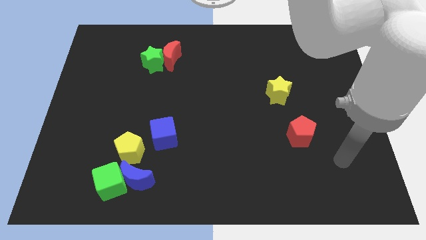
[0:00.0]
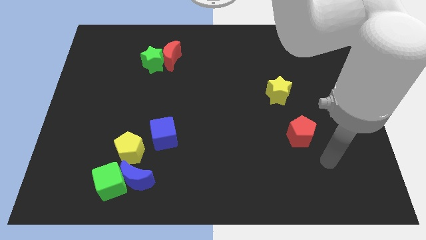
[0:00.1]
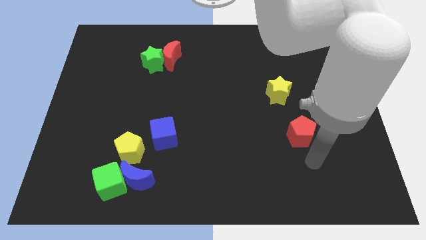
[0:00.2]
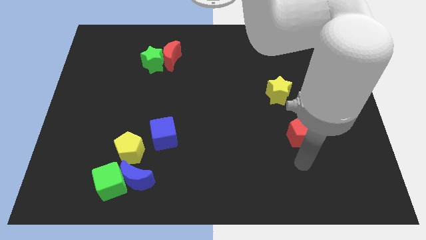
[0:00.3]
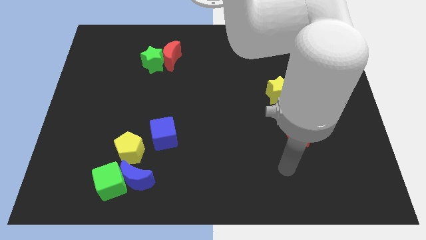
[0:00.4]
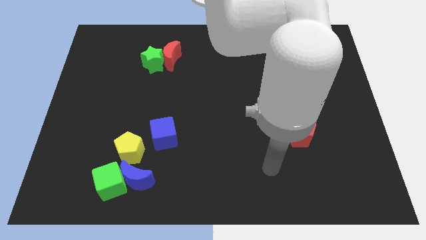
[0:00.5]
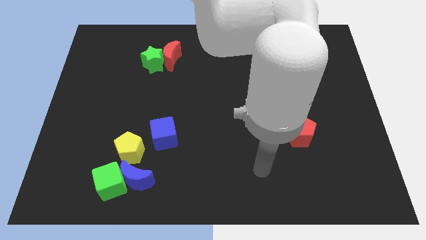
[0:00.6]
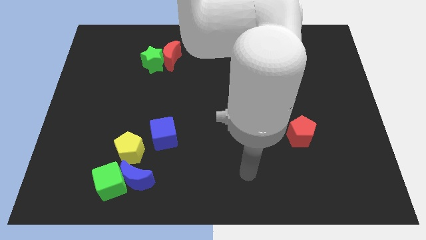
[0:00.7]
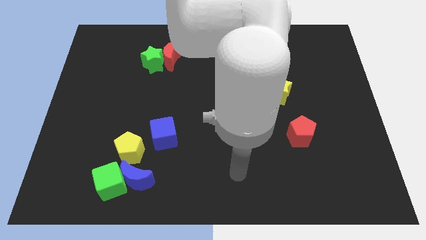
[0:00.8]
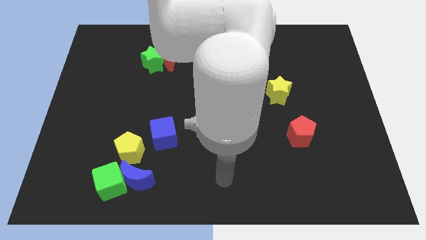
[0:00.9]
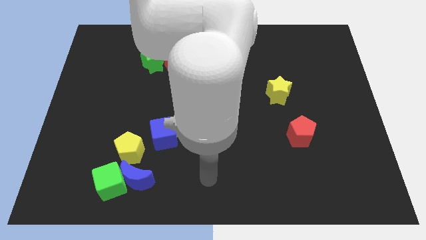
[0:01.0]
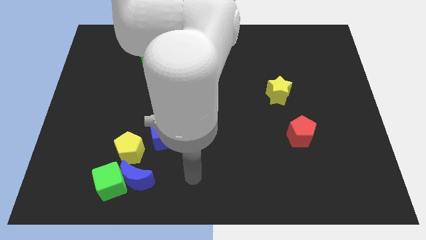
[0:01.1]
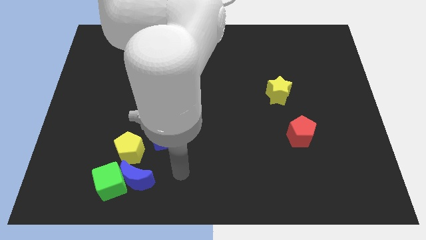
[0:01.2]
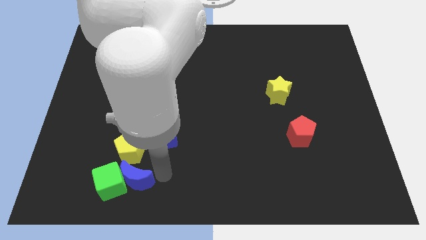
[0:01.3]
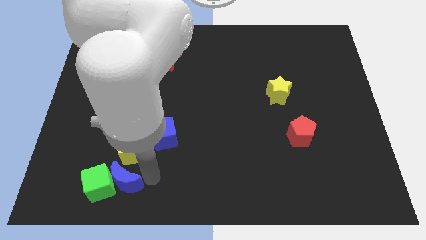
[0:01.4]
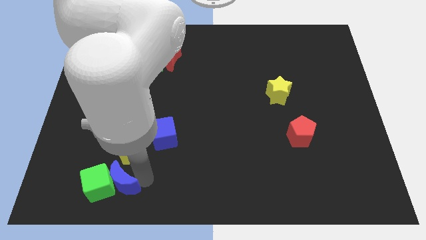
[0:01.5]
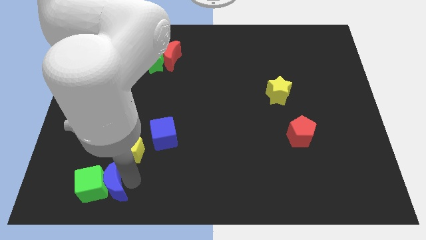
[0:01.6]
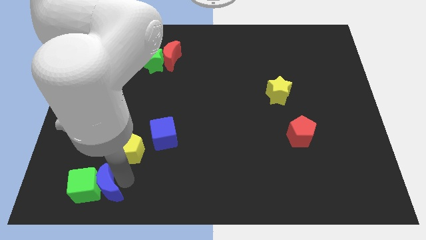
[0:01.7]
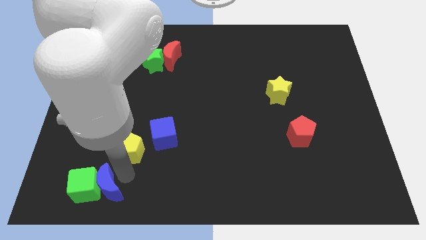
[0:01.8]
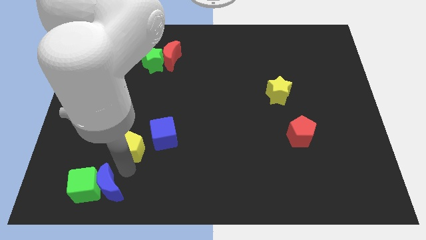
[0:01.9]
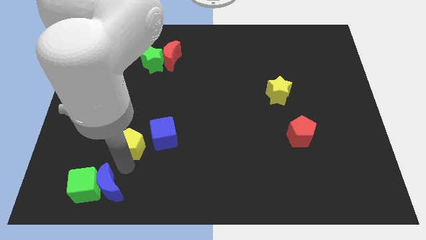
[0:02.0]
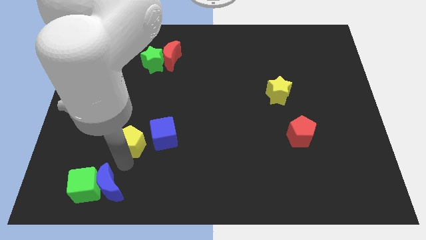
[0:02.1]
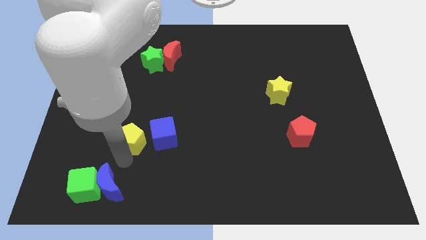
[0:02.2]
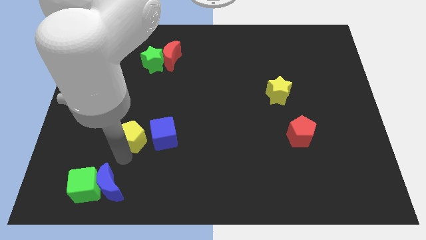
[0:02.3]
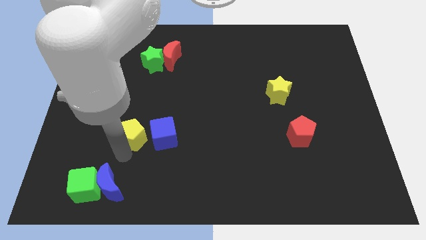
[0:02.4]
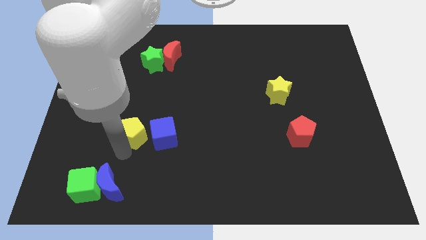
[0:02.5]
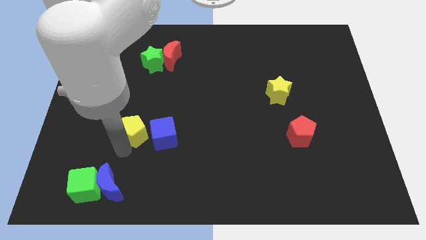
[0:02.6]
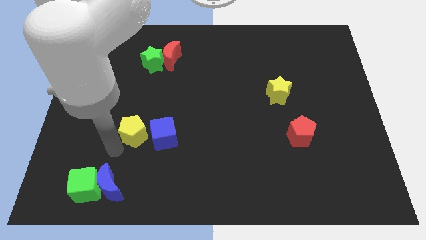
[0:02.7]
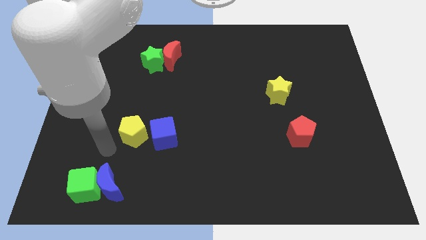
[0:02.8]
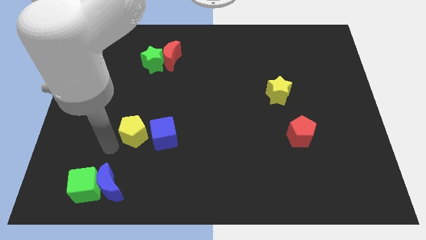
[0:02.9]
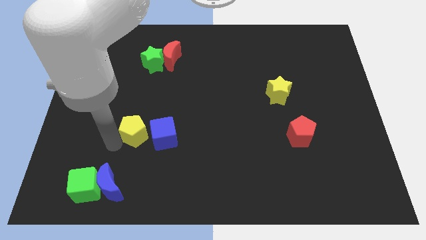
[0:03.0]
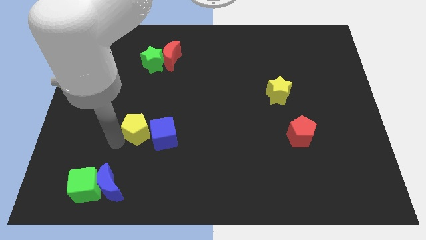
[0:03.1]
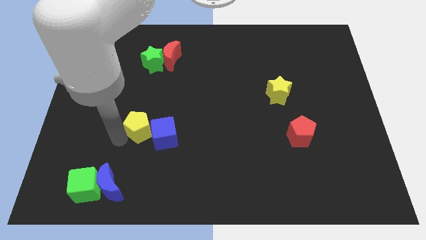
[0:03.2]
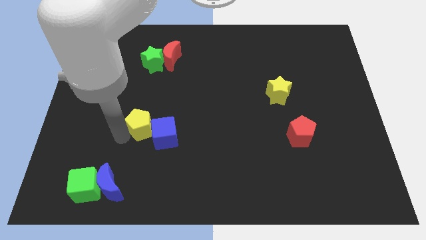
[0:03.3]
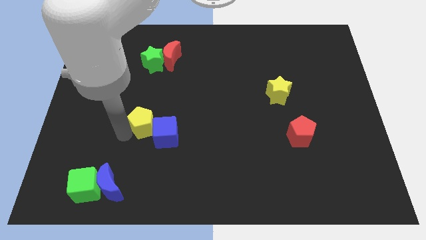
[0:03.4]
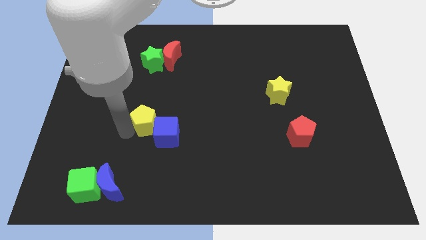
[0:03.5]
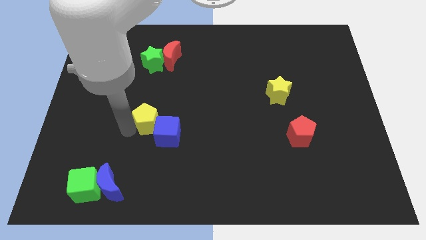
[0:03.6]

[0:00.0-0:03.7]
push the yellow pentagon a bit upwards and then to the right

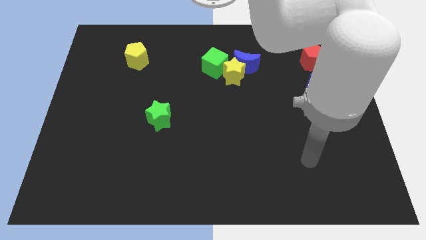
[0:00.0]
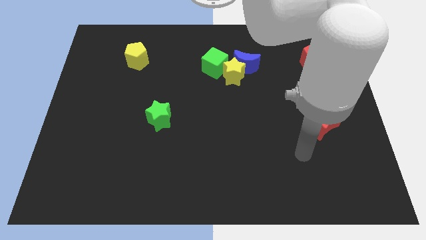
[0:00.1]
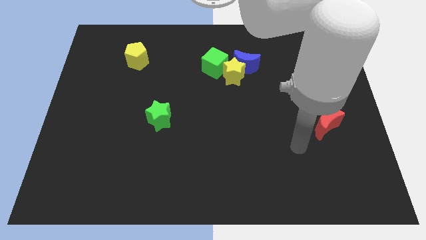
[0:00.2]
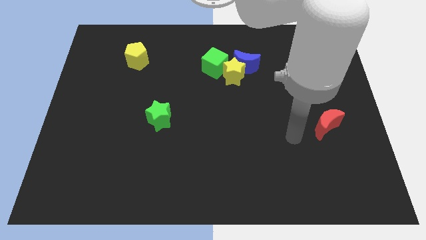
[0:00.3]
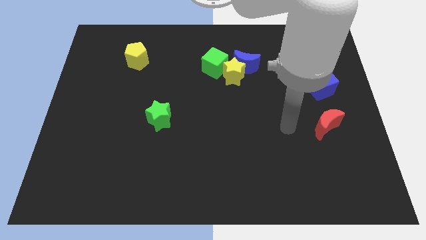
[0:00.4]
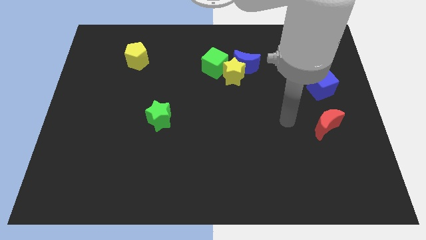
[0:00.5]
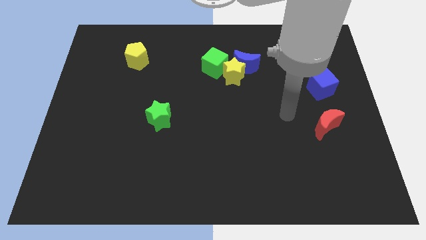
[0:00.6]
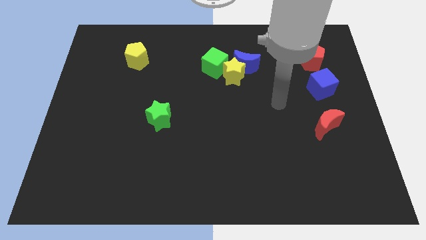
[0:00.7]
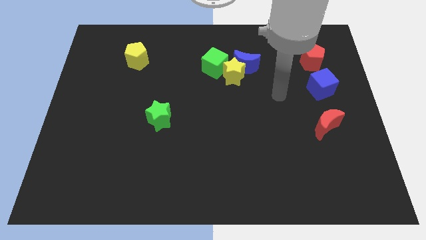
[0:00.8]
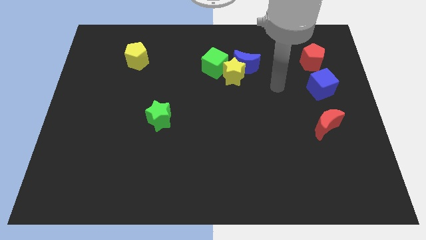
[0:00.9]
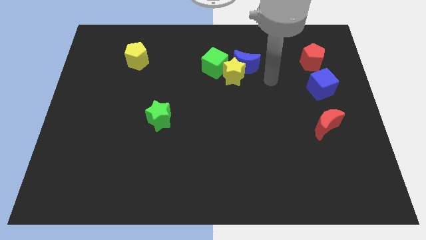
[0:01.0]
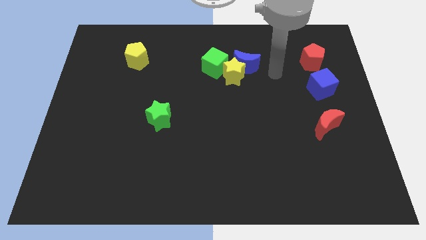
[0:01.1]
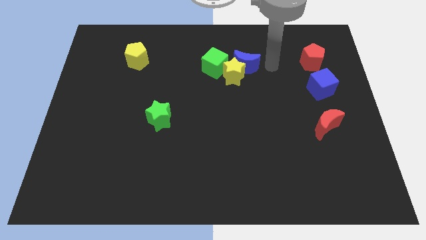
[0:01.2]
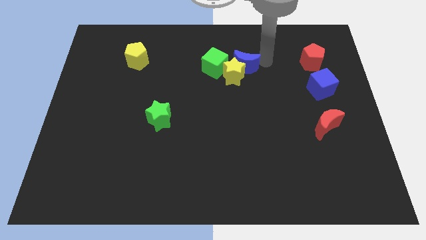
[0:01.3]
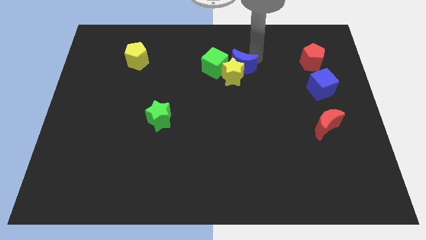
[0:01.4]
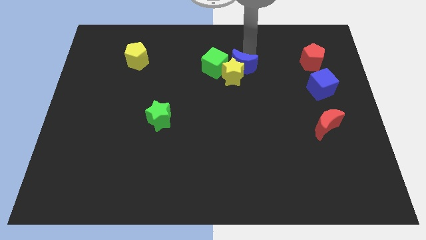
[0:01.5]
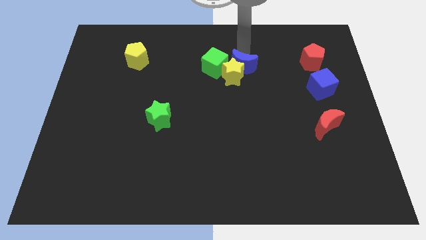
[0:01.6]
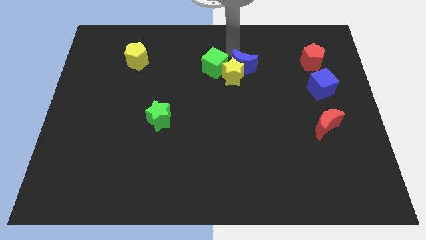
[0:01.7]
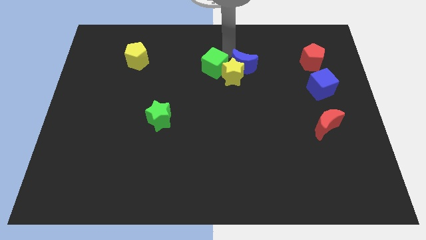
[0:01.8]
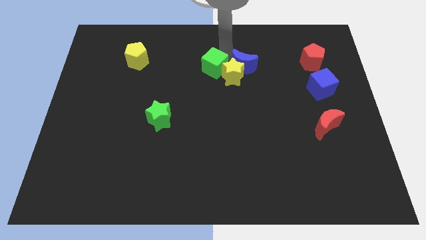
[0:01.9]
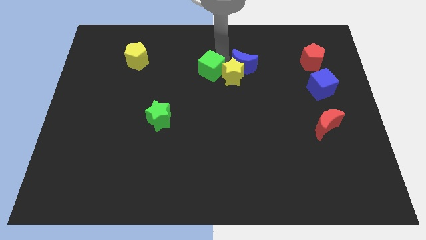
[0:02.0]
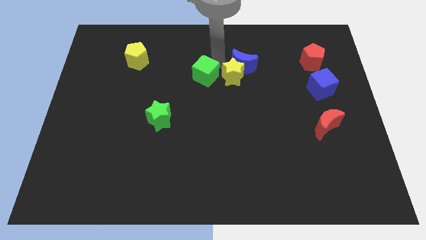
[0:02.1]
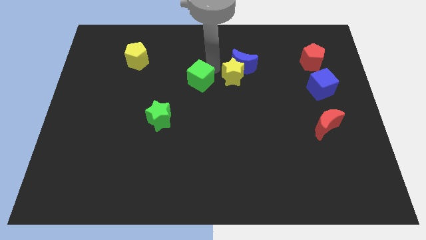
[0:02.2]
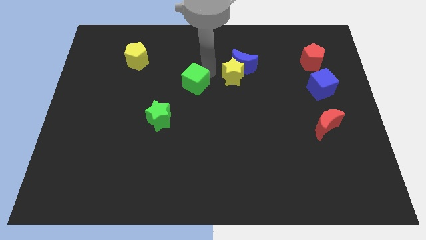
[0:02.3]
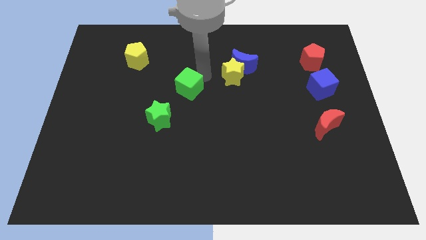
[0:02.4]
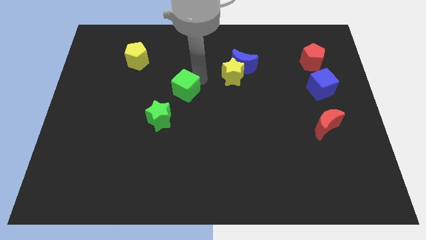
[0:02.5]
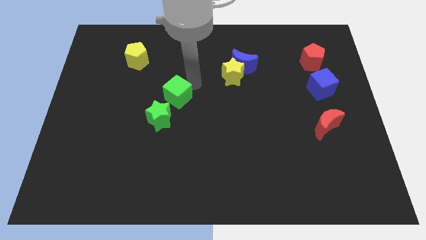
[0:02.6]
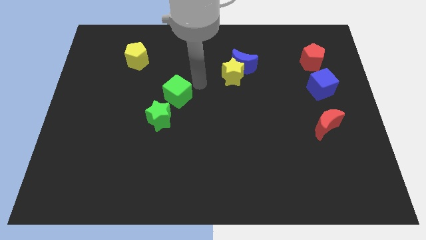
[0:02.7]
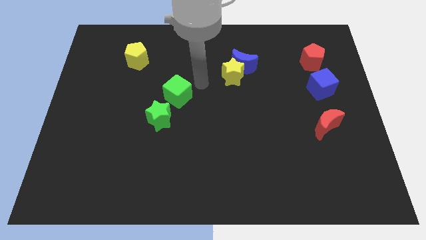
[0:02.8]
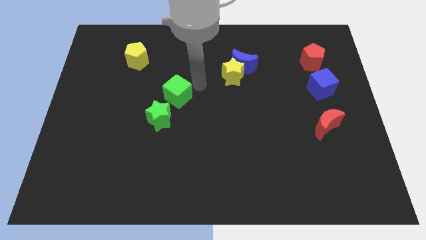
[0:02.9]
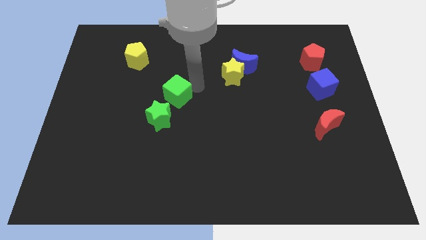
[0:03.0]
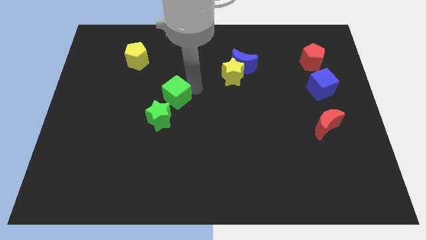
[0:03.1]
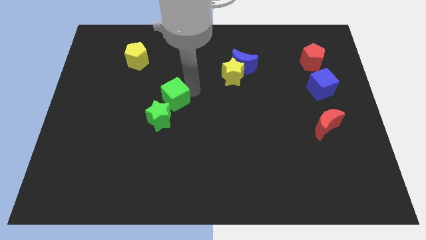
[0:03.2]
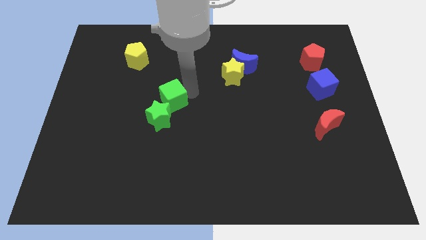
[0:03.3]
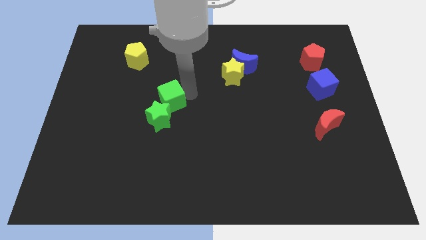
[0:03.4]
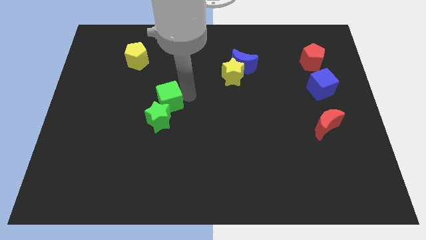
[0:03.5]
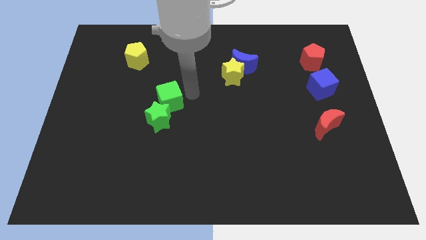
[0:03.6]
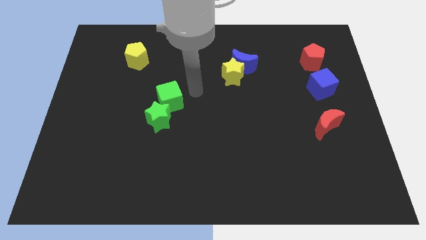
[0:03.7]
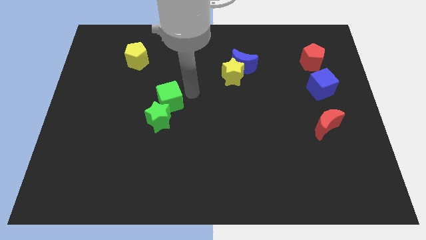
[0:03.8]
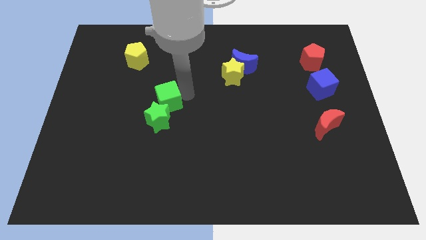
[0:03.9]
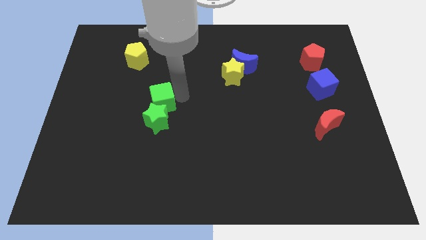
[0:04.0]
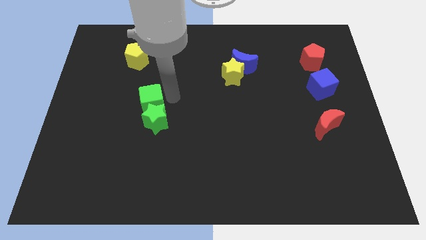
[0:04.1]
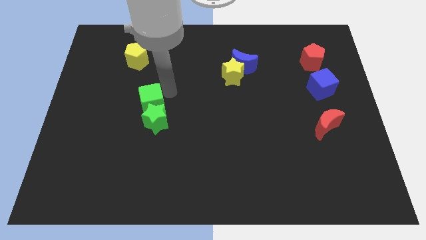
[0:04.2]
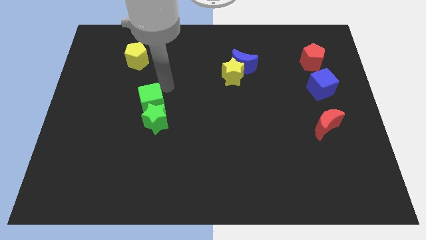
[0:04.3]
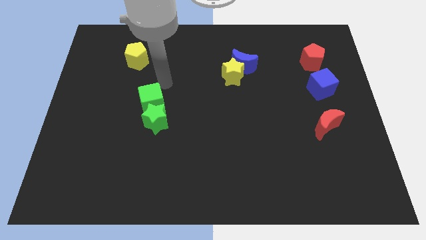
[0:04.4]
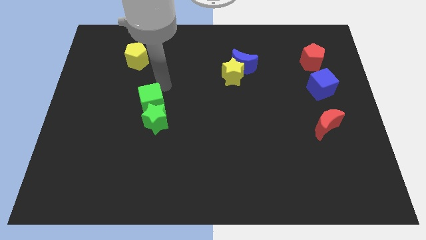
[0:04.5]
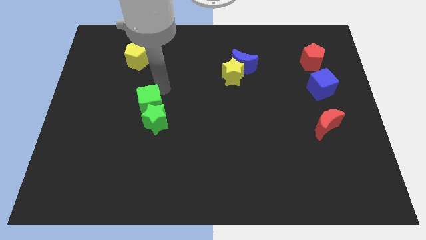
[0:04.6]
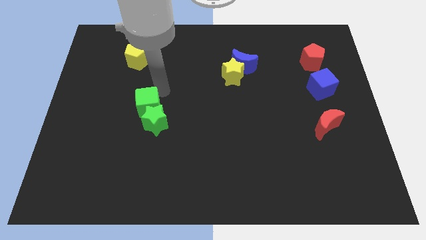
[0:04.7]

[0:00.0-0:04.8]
slide the green cube downwards and left diagonally
